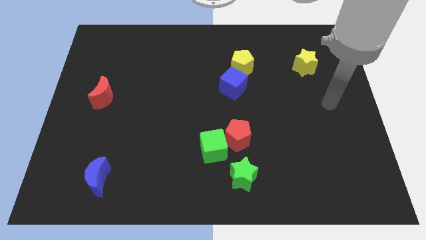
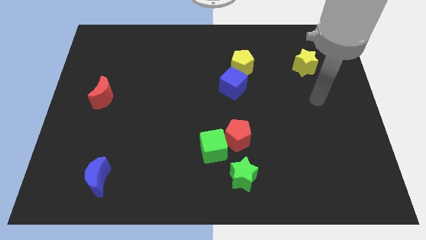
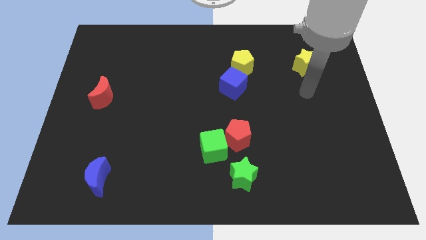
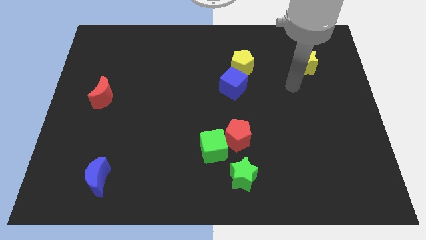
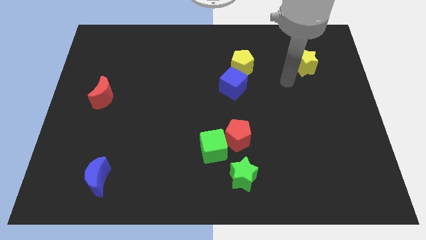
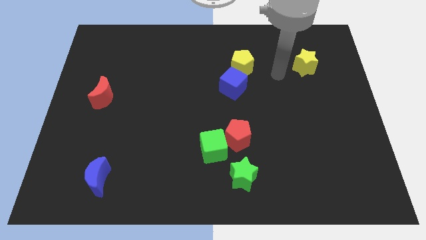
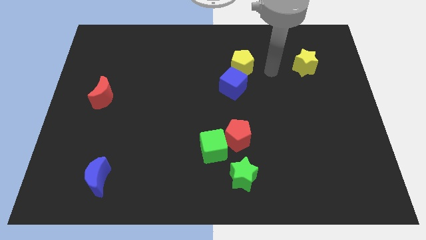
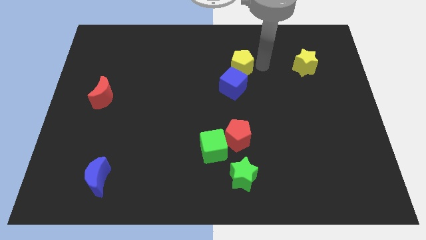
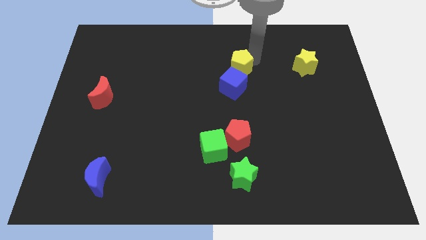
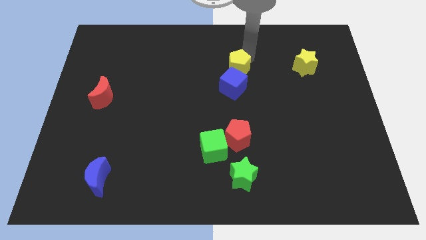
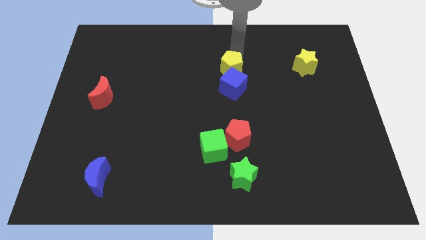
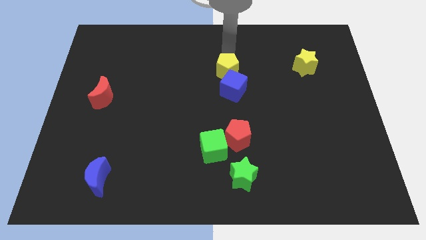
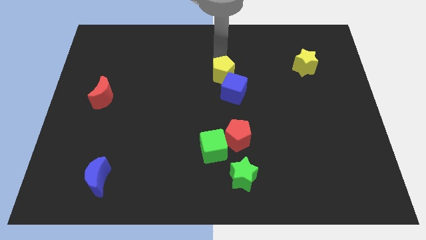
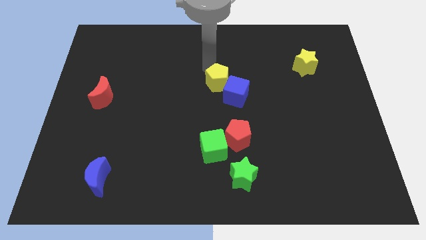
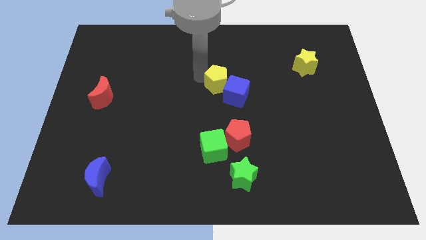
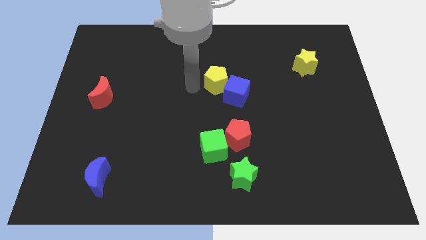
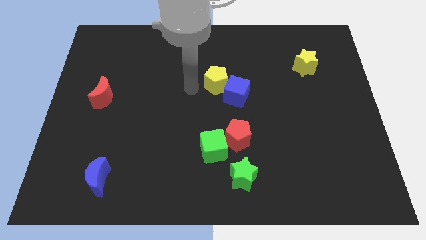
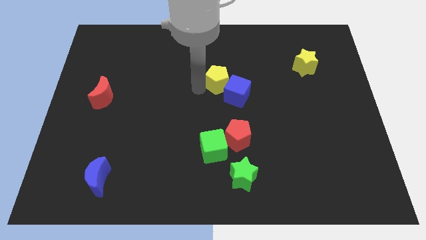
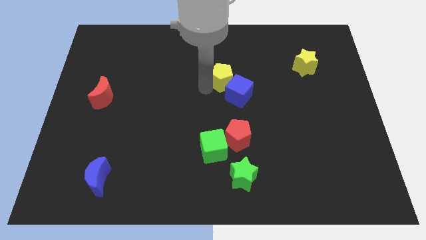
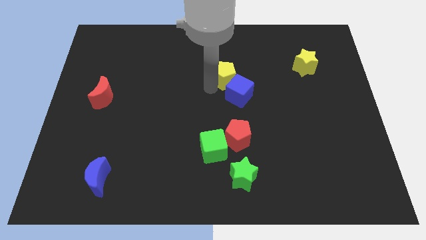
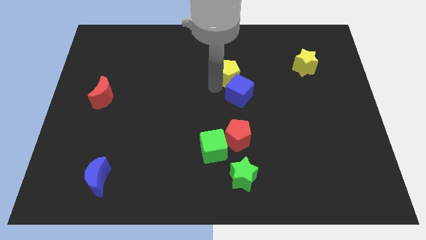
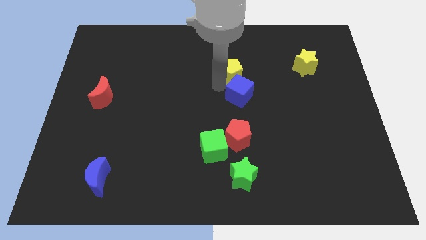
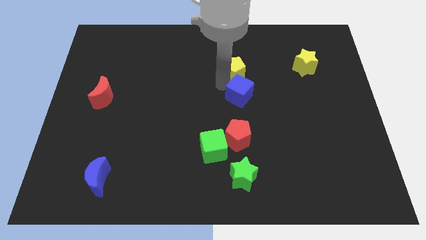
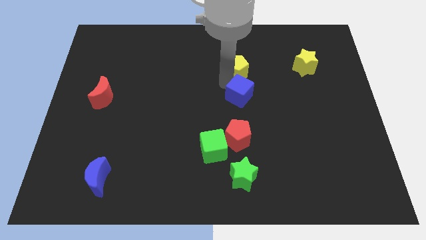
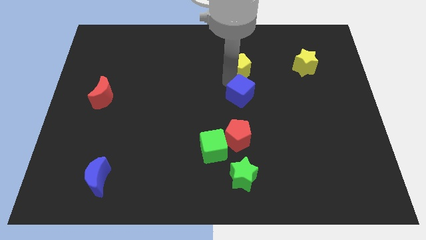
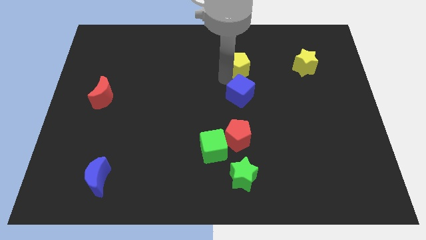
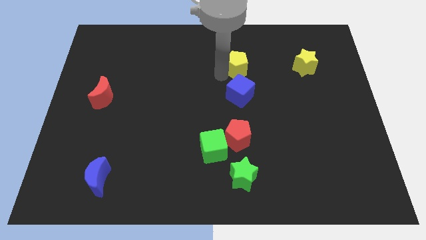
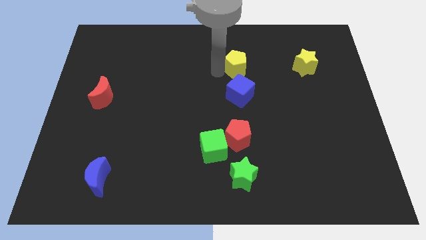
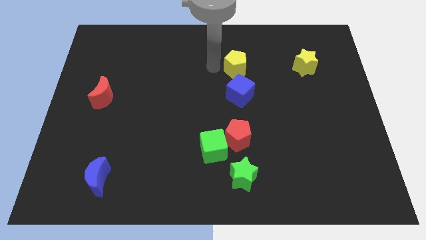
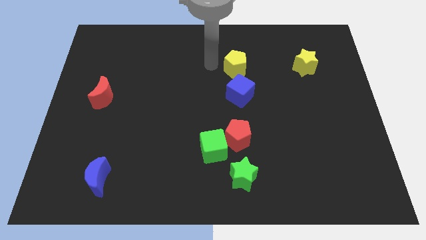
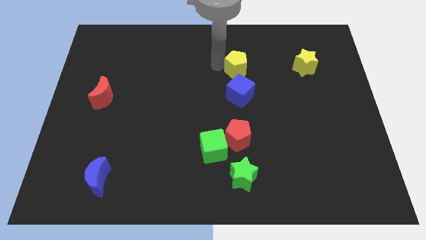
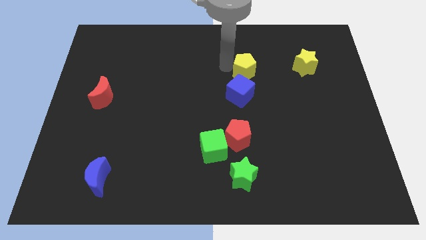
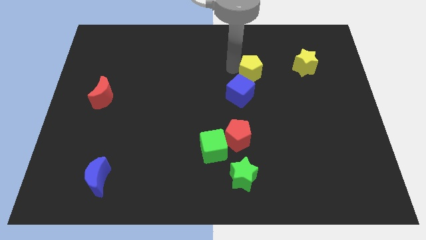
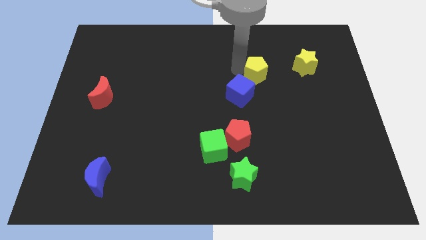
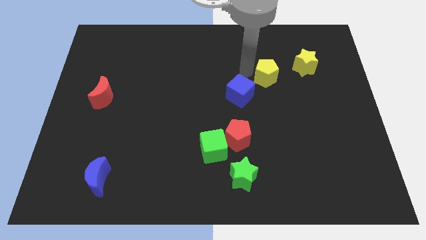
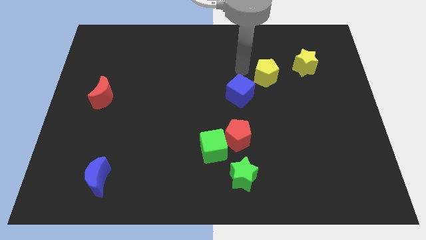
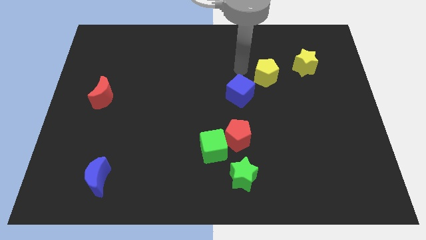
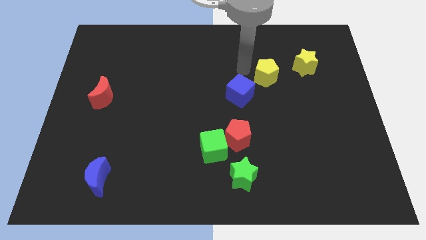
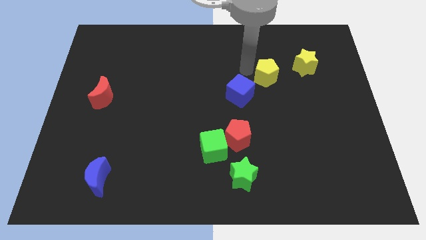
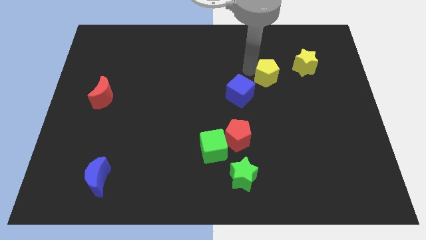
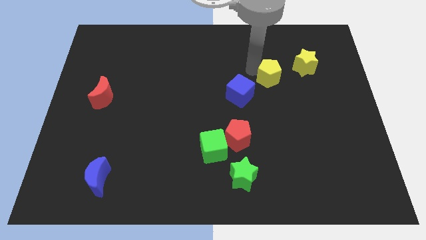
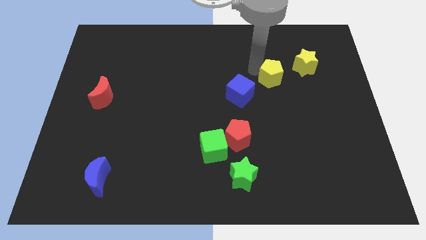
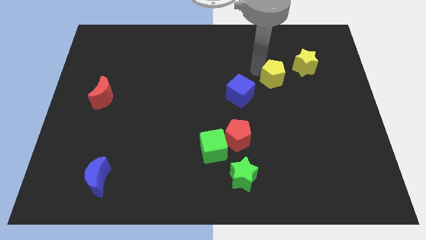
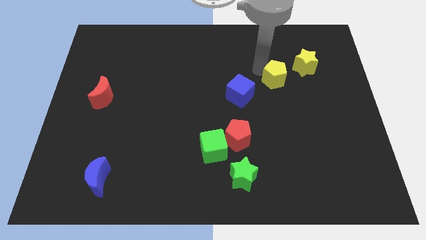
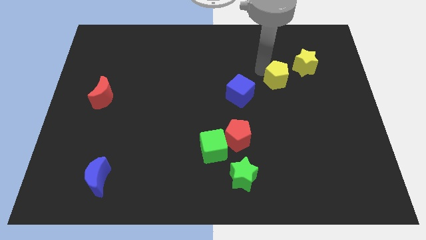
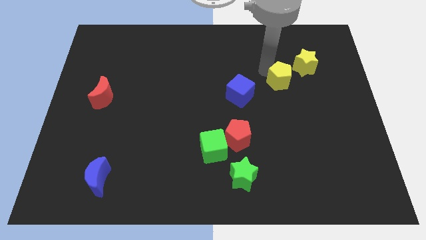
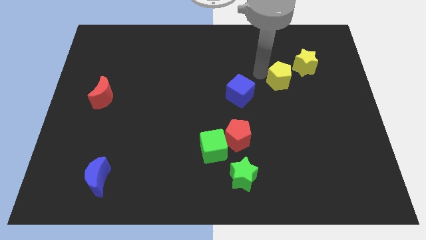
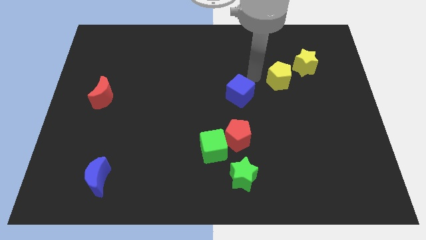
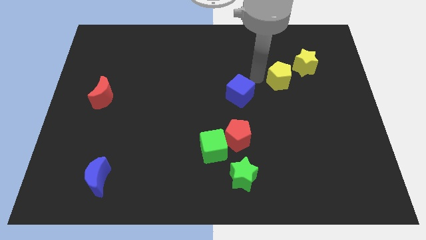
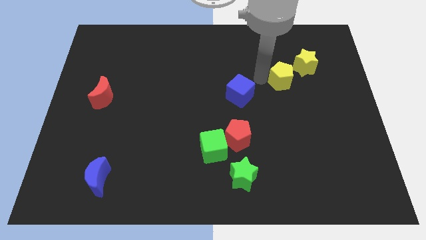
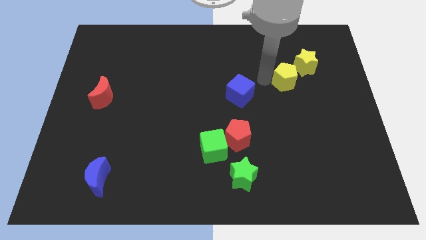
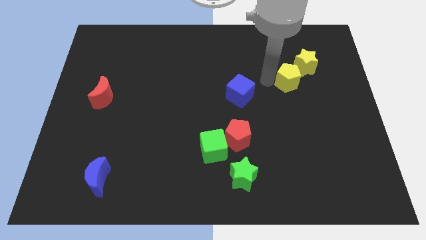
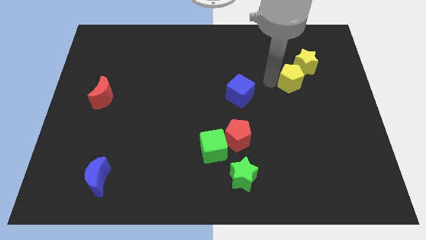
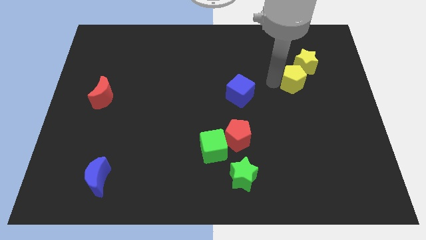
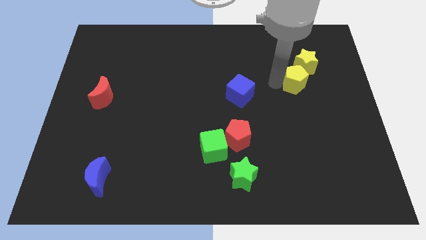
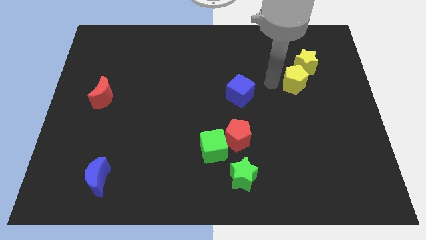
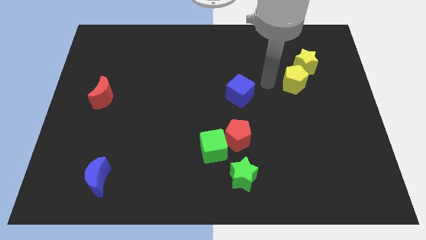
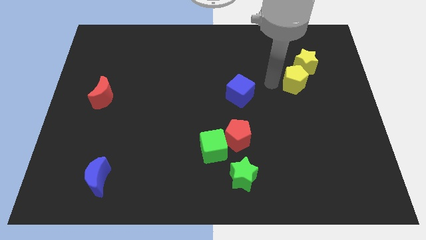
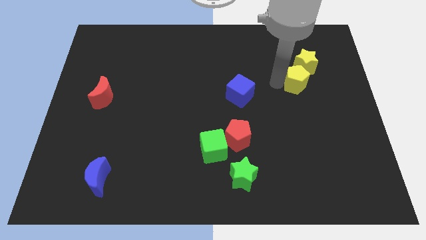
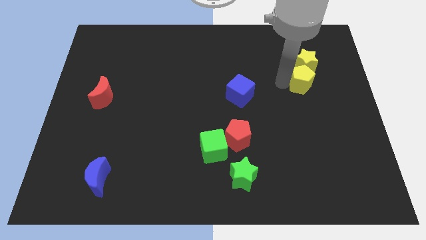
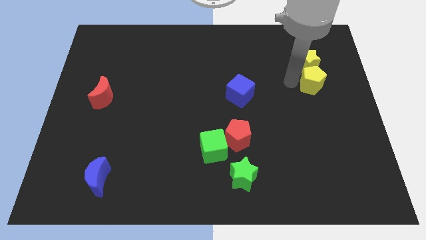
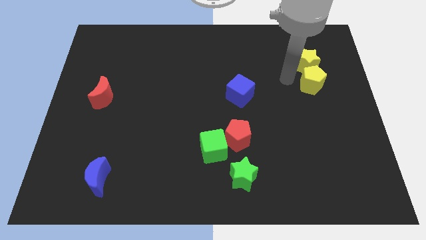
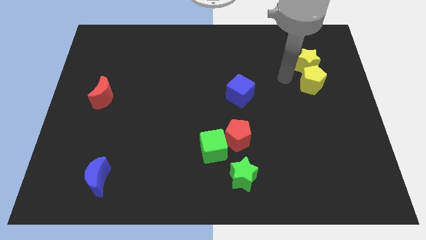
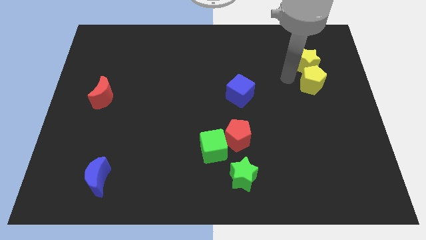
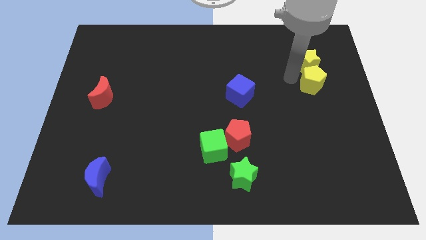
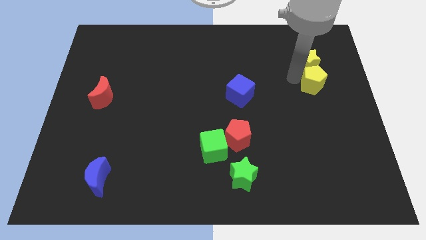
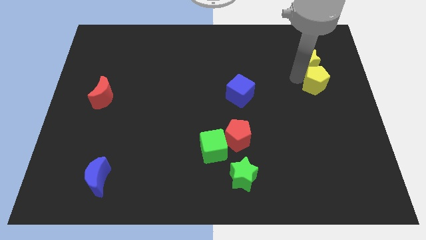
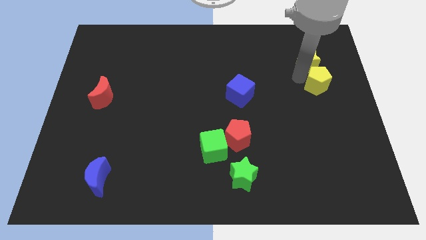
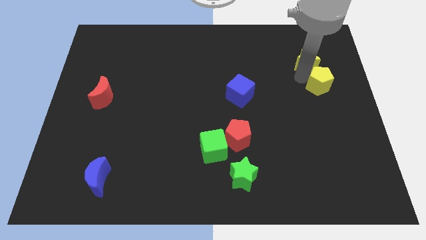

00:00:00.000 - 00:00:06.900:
push the yellow pentagon to the right side
